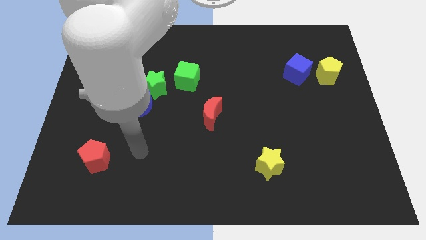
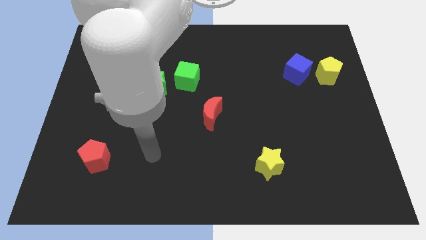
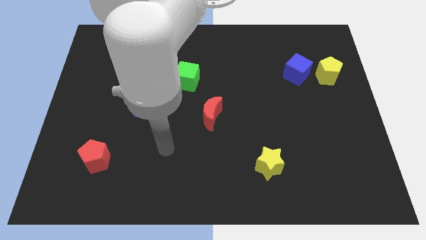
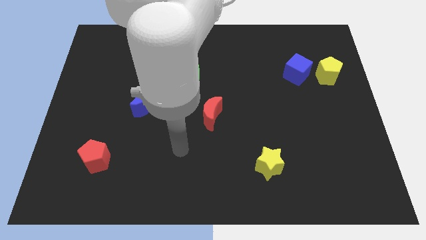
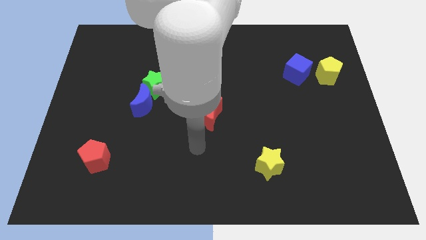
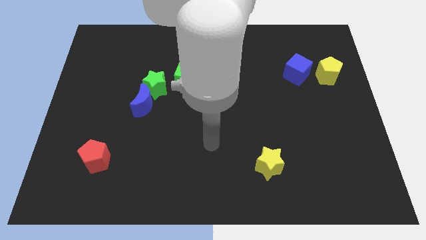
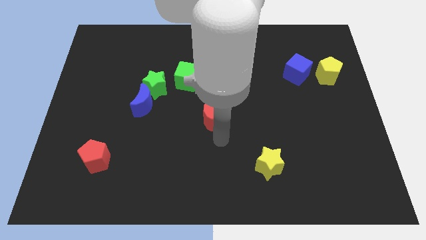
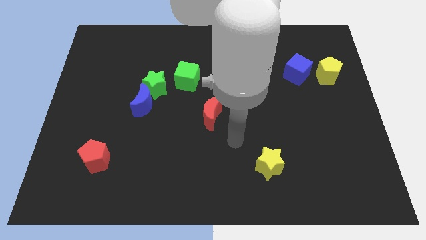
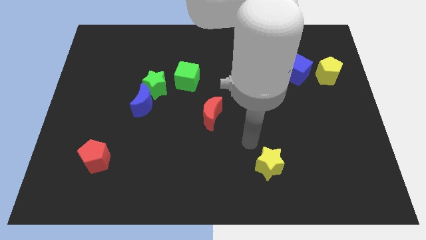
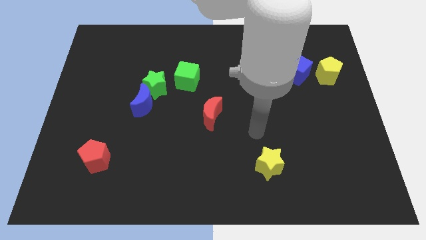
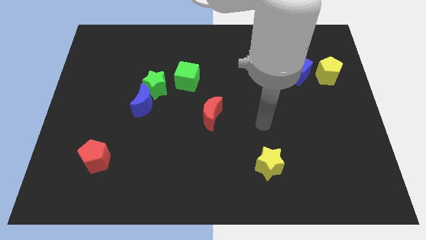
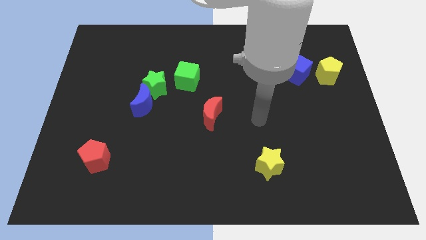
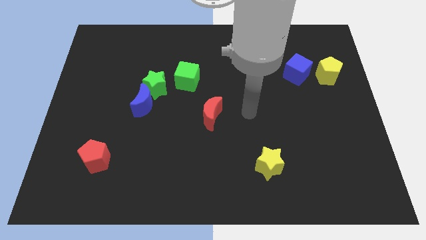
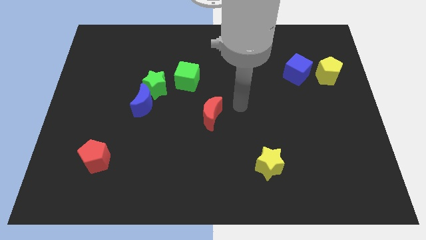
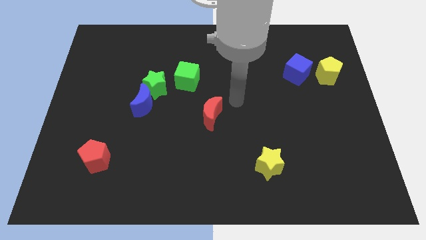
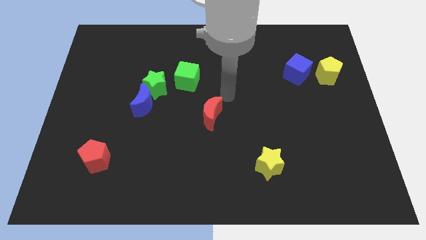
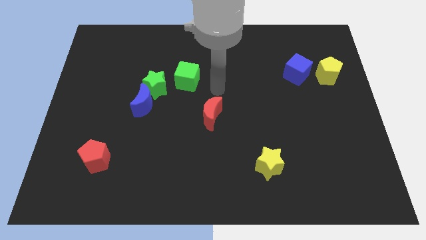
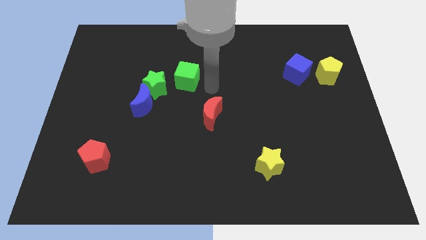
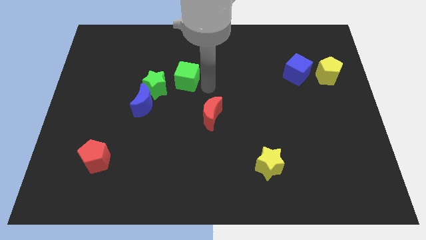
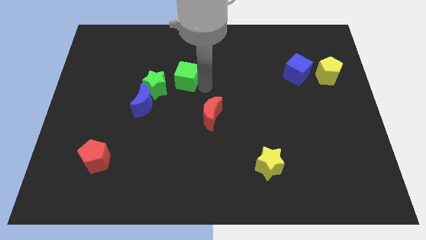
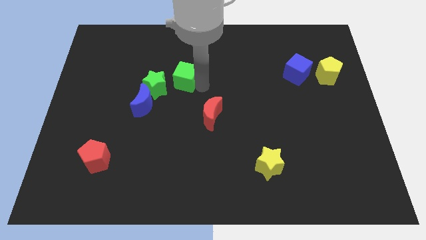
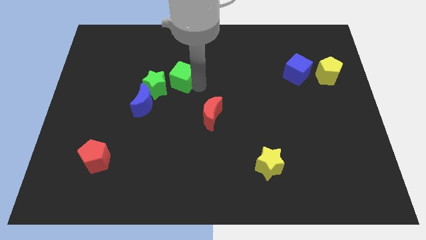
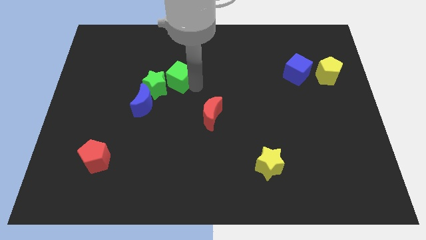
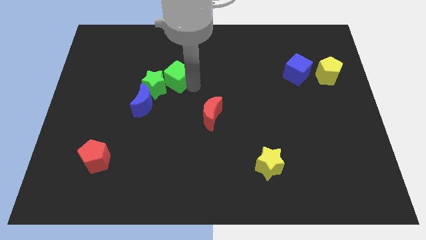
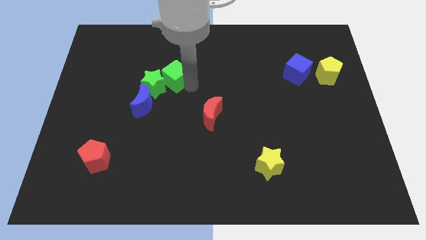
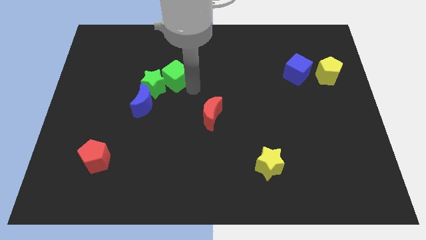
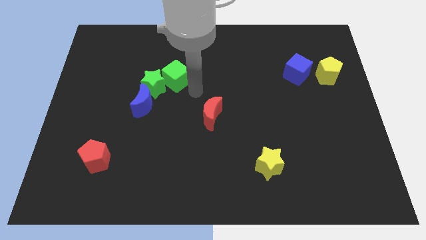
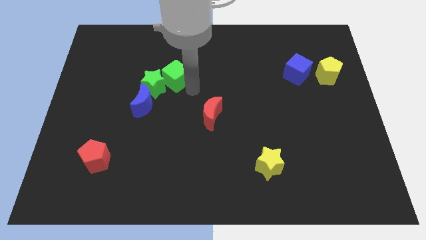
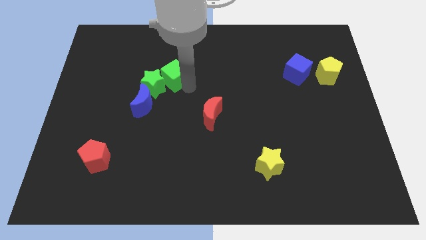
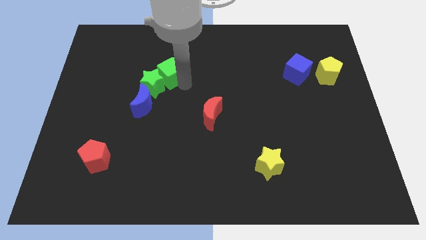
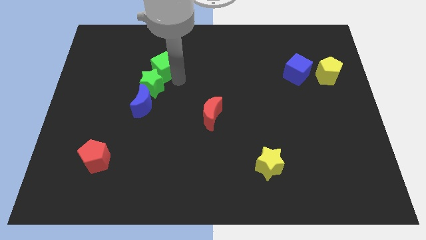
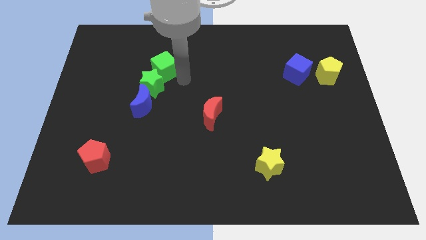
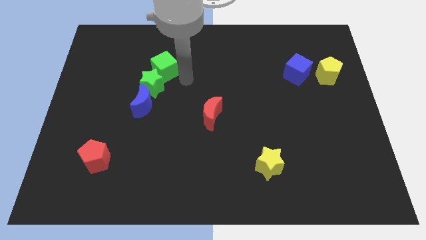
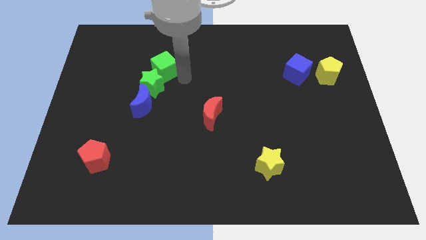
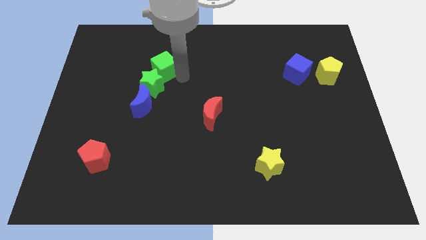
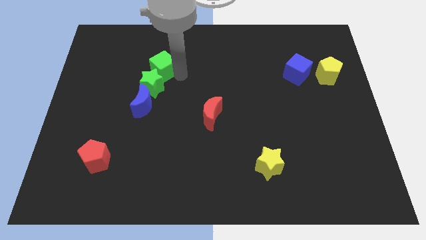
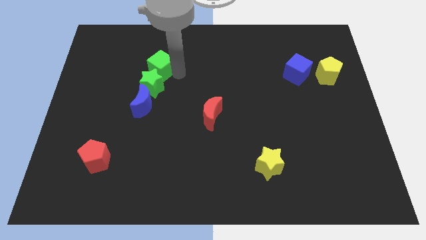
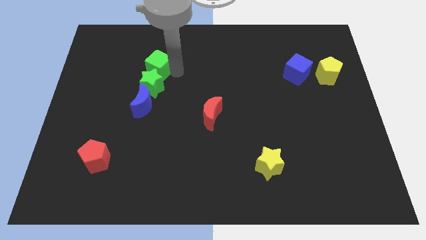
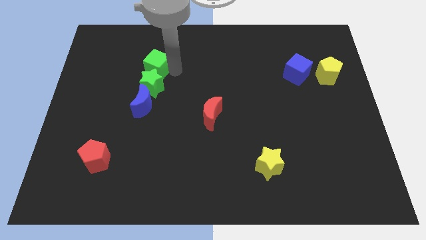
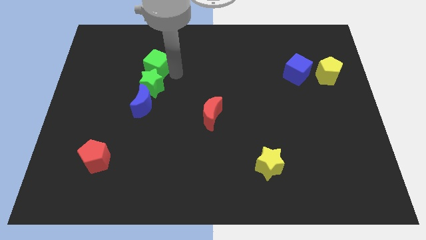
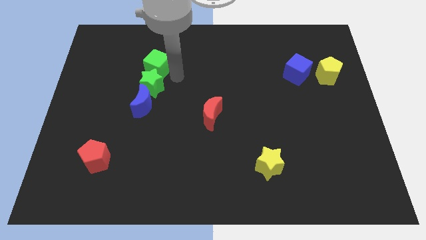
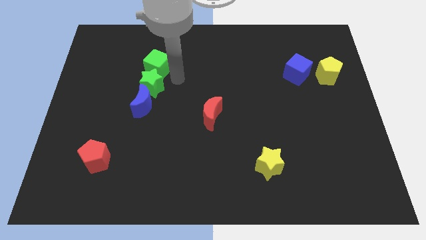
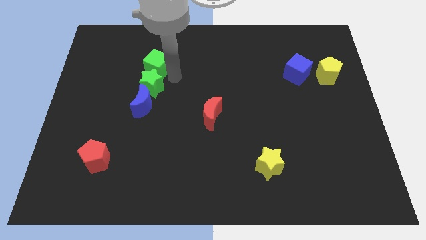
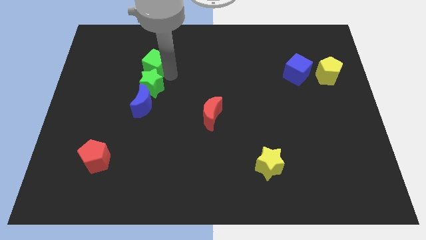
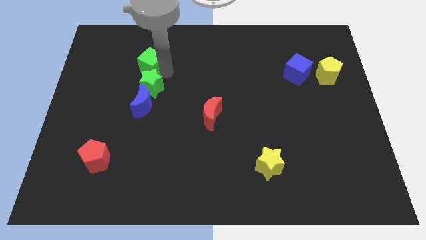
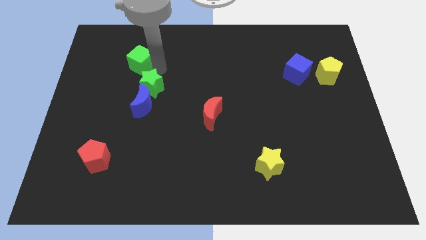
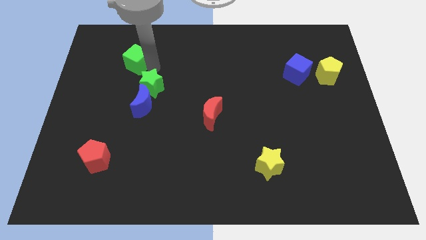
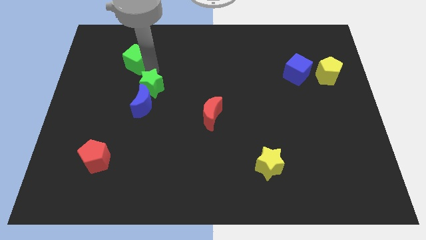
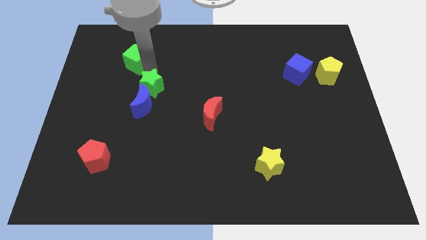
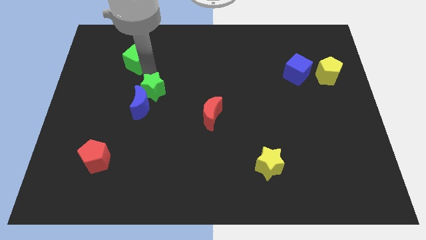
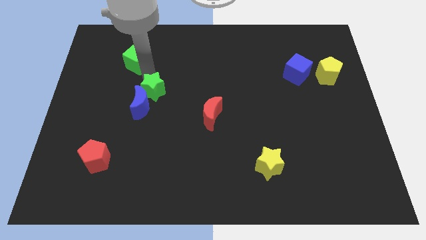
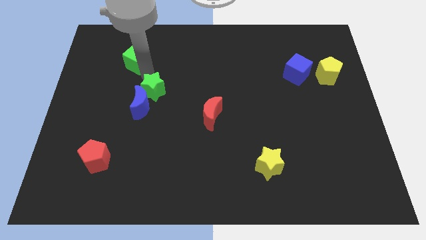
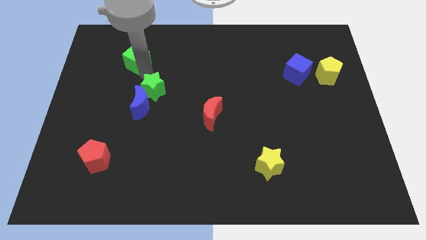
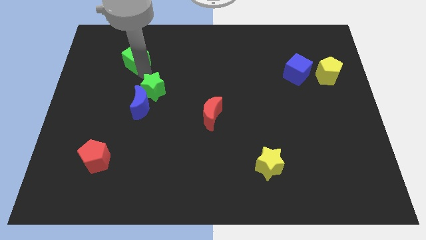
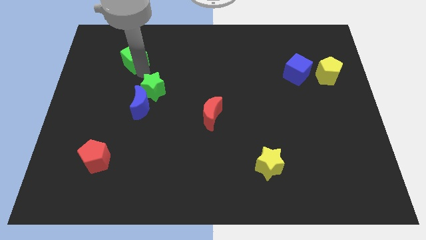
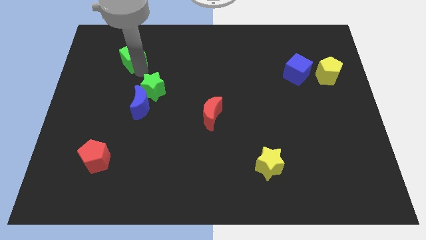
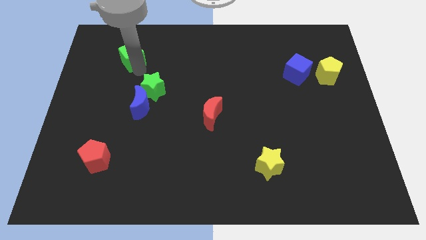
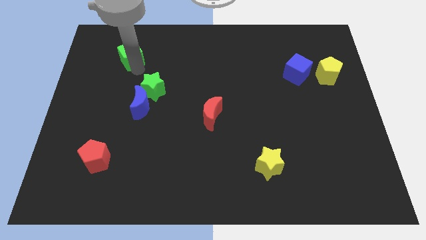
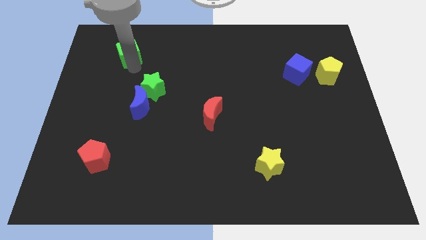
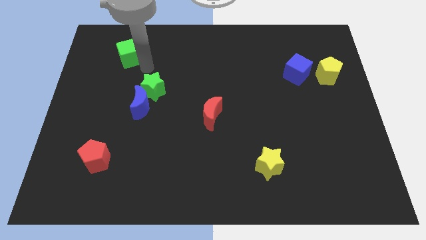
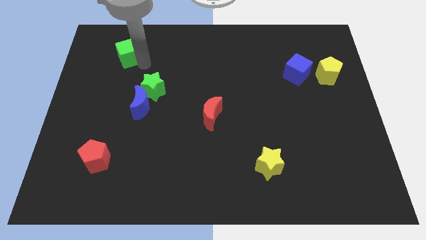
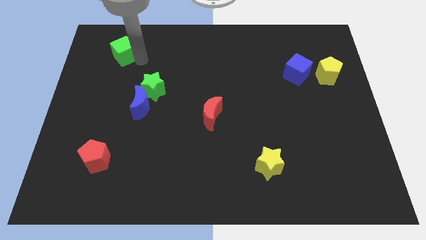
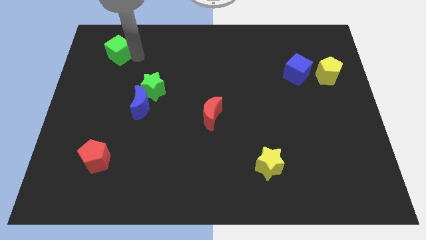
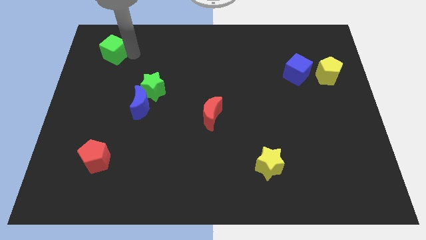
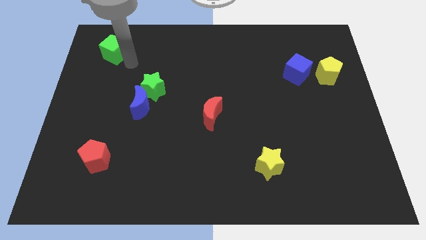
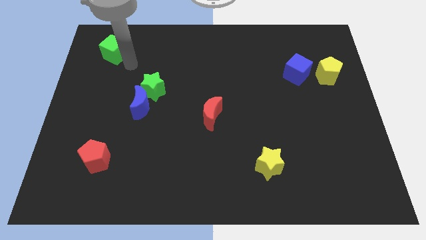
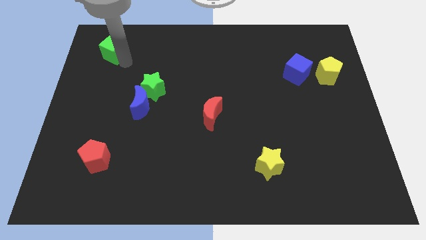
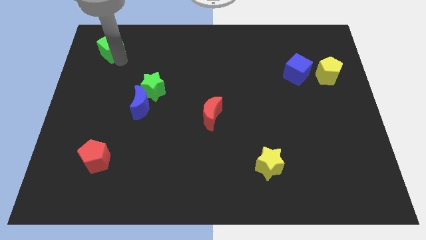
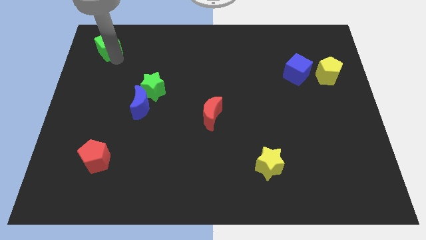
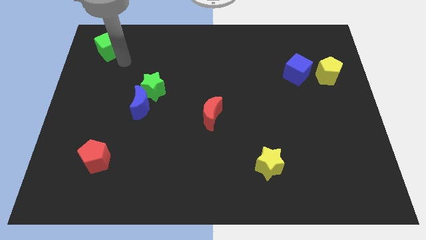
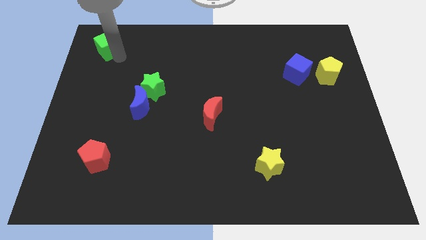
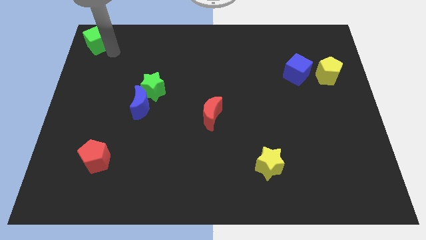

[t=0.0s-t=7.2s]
slide the green cube to the top left of the board
